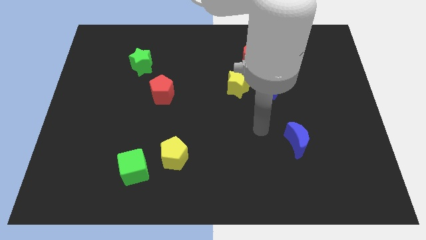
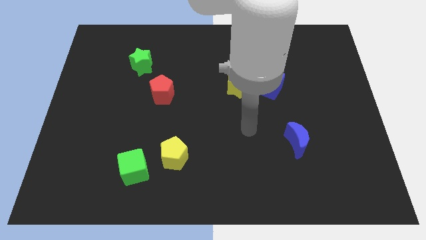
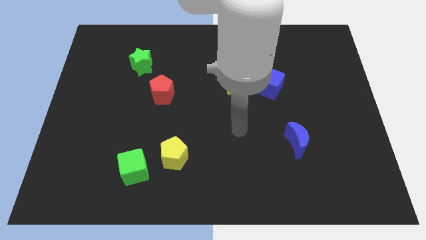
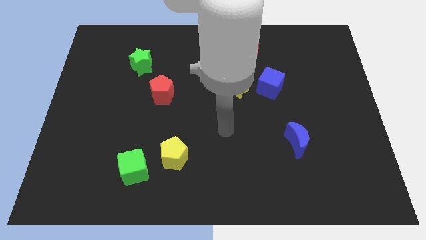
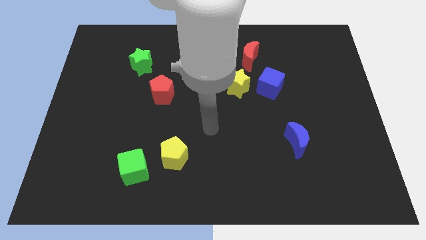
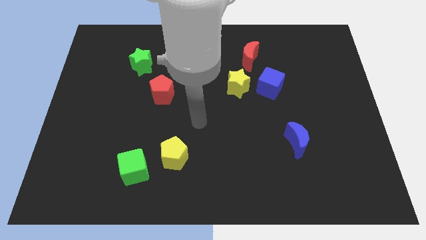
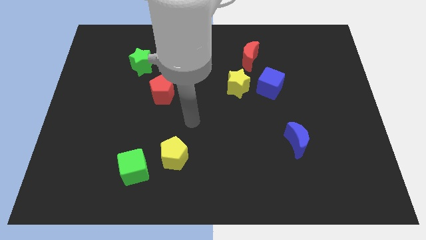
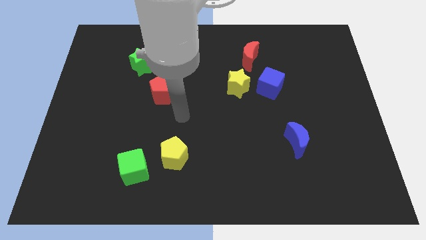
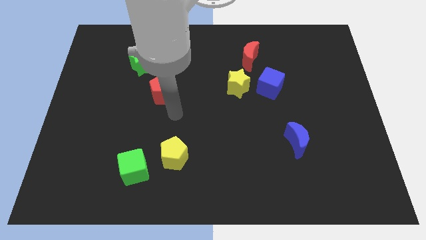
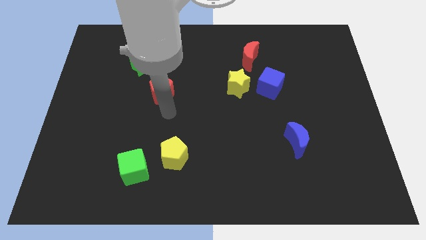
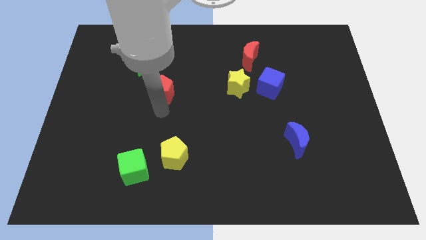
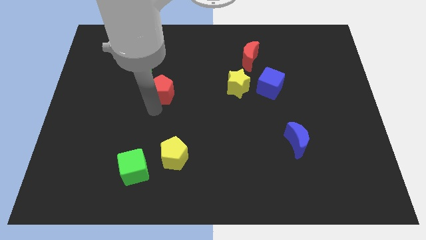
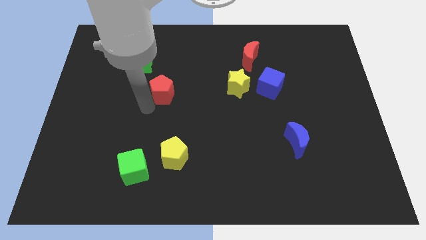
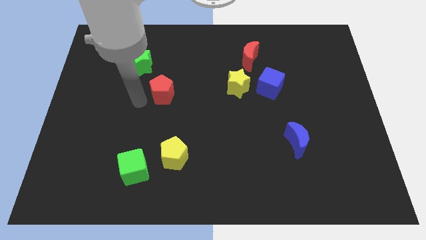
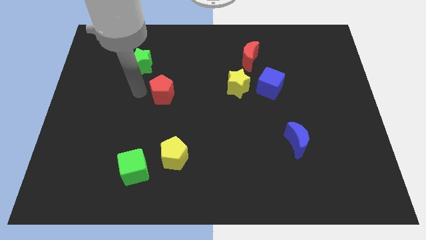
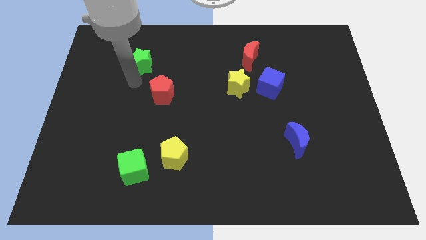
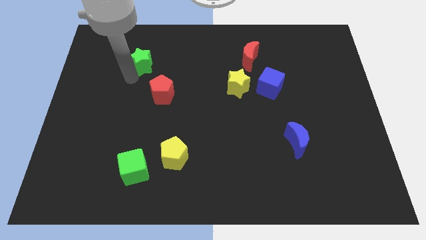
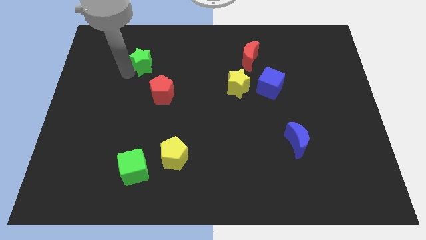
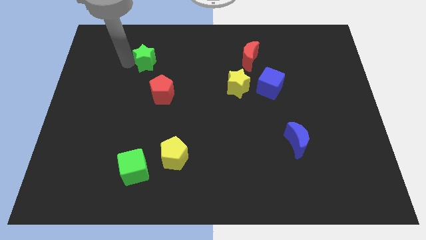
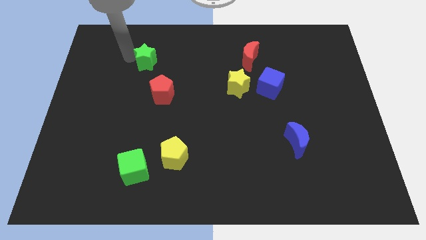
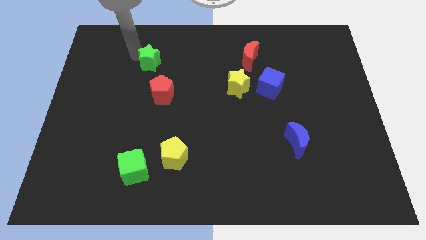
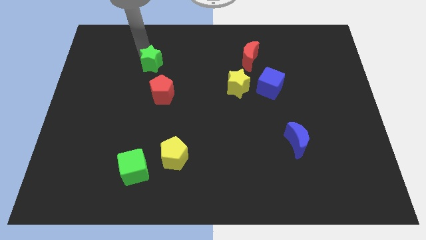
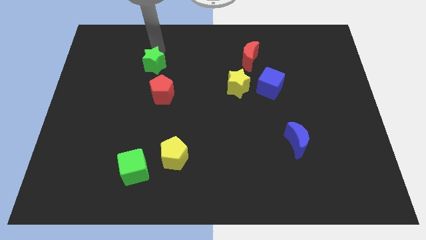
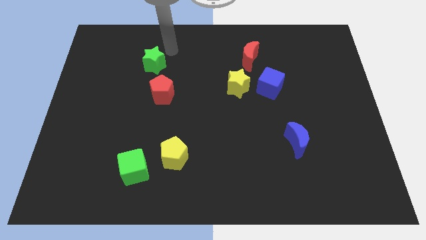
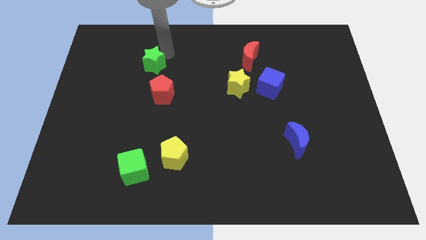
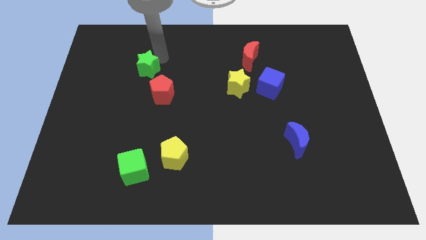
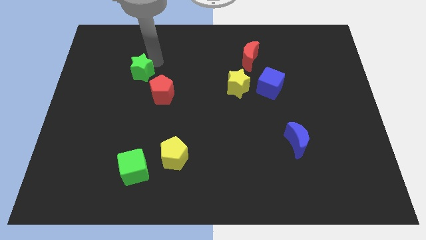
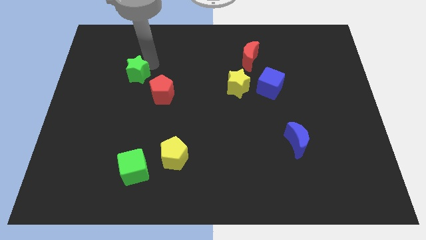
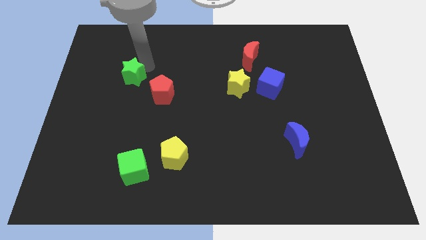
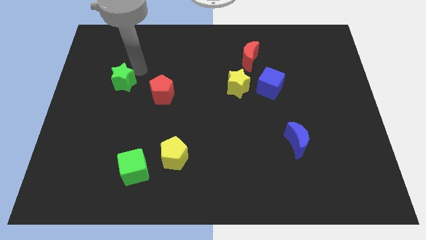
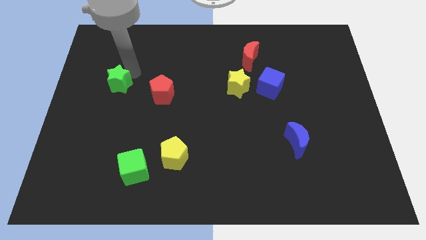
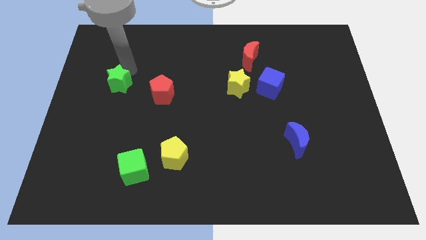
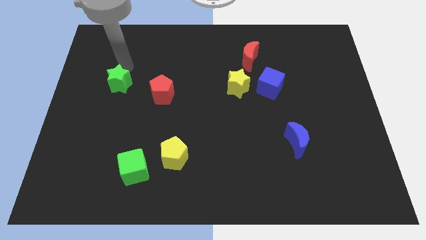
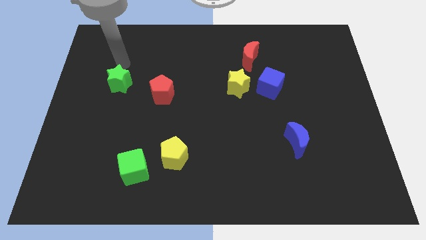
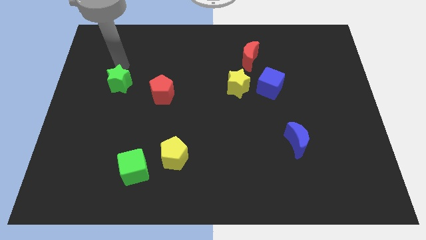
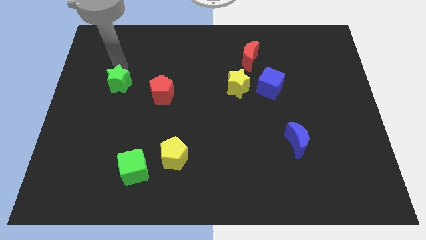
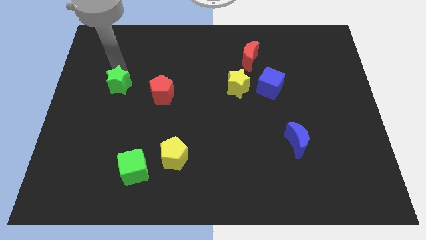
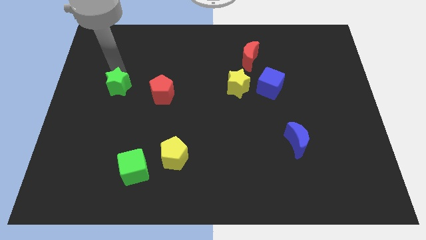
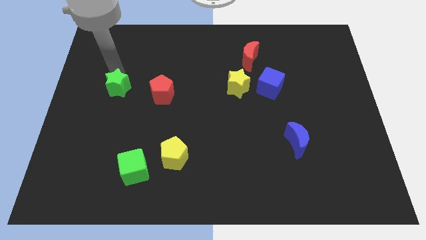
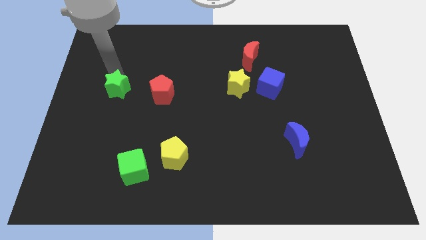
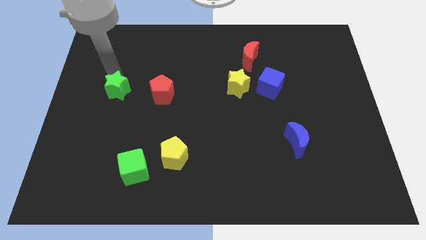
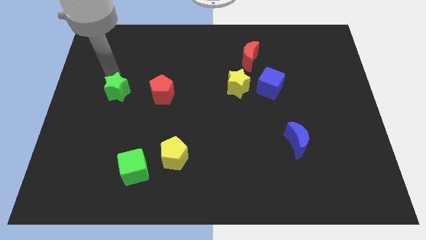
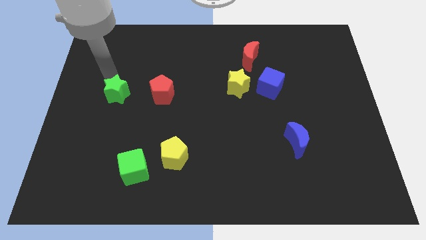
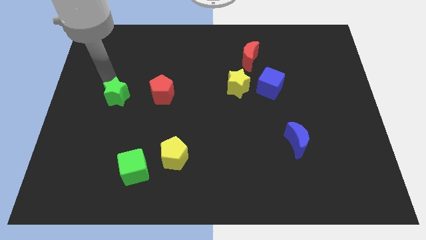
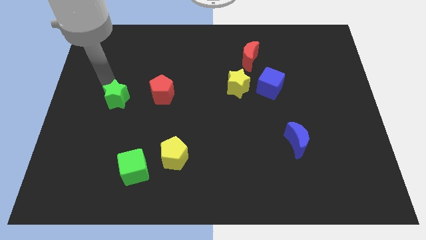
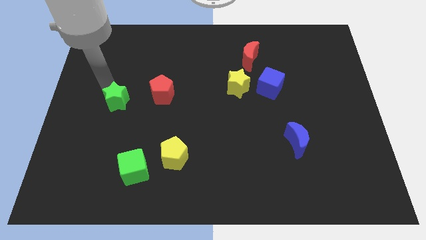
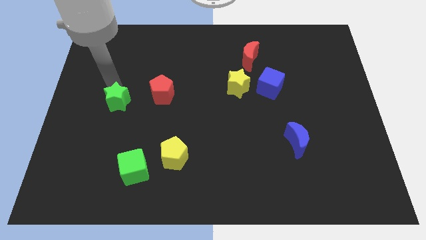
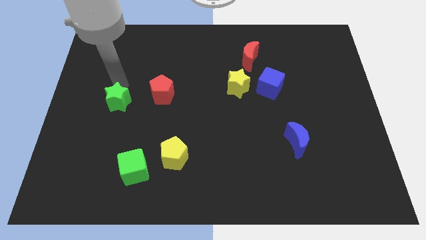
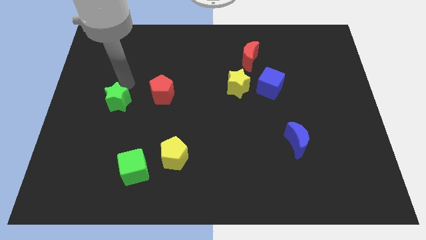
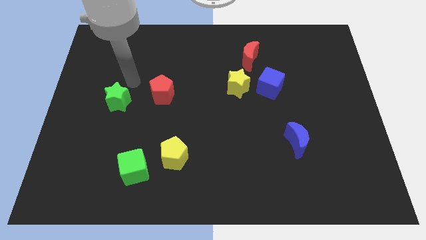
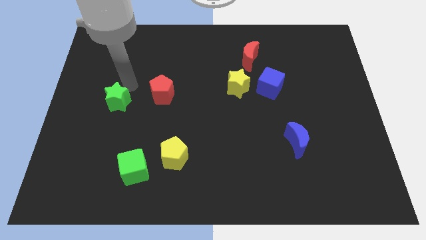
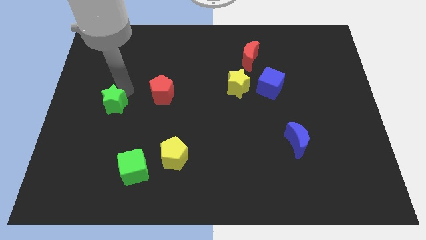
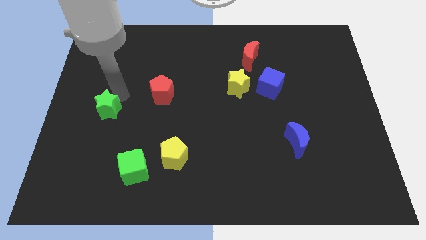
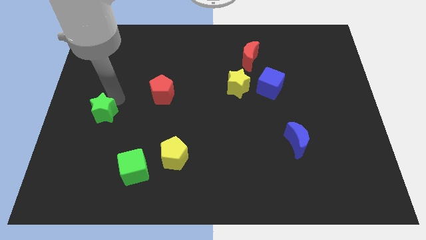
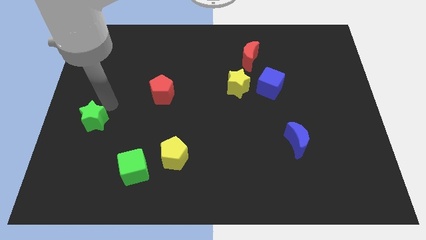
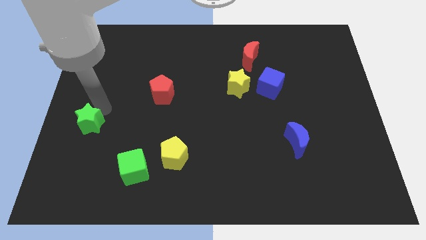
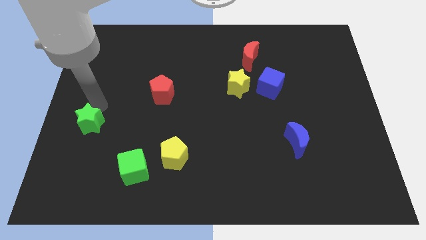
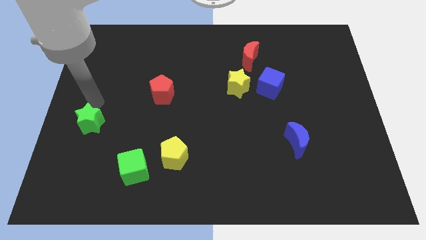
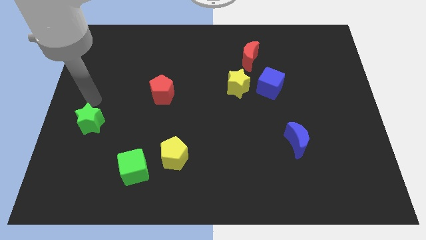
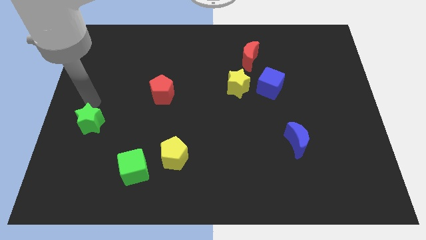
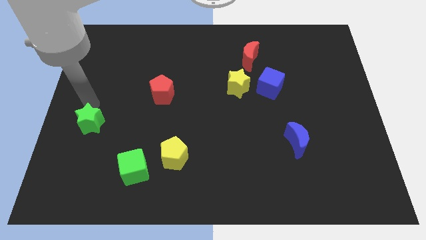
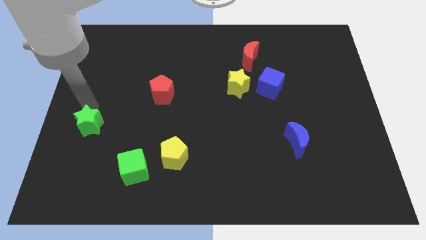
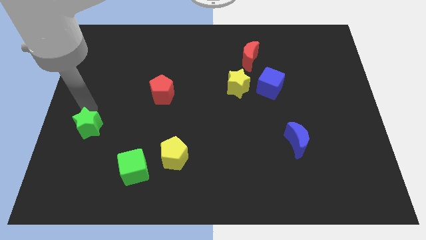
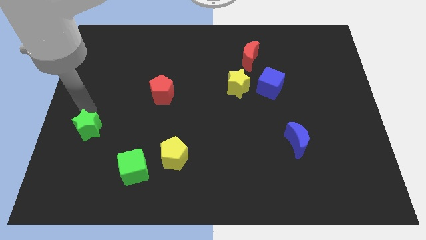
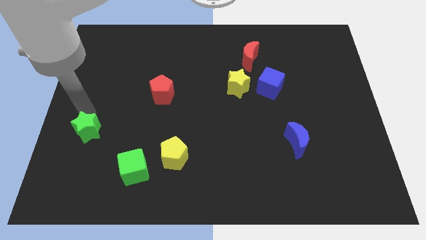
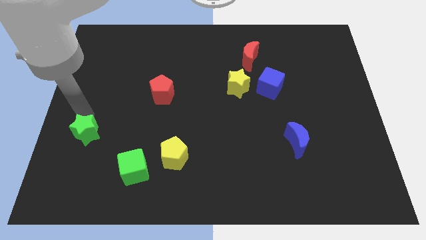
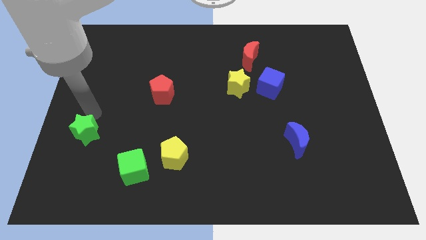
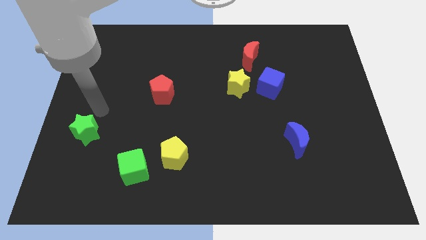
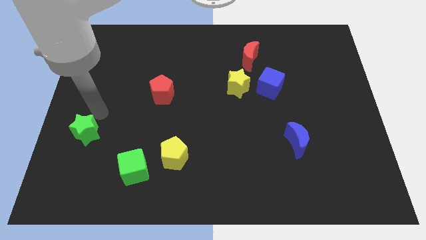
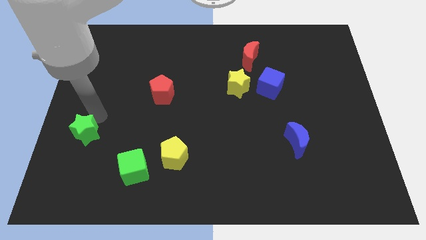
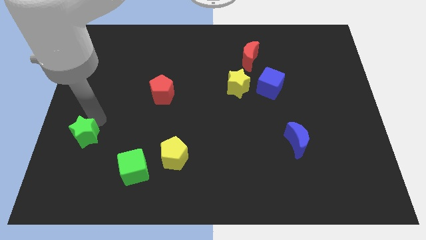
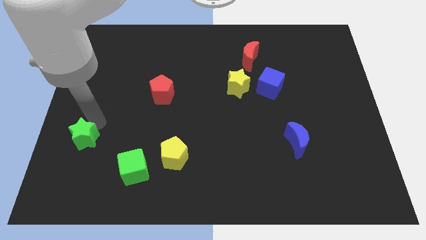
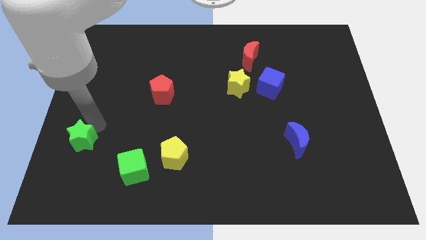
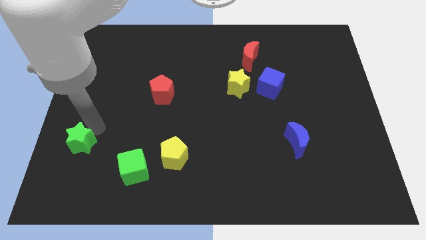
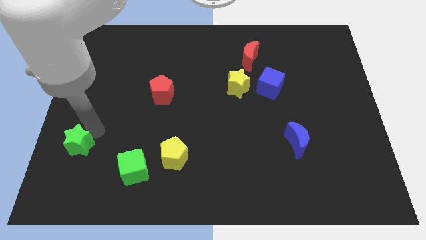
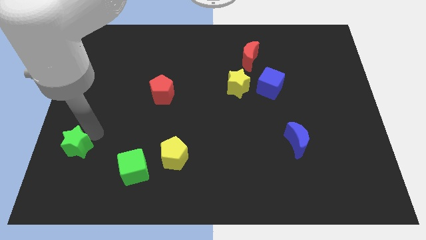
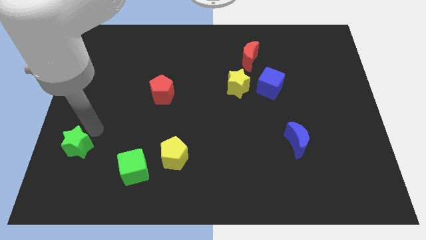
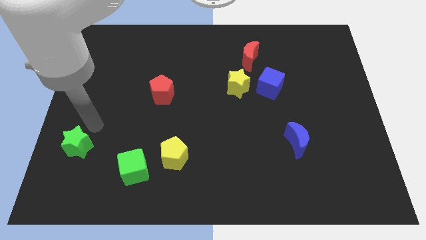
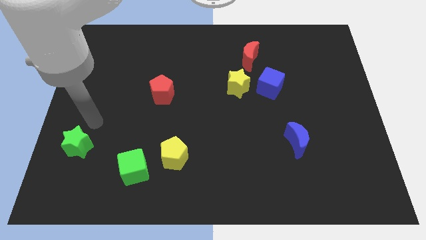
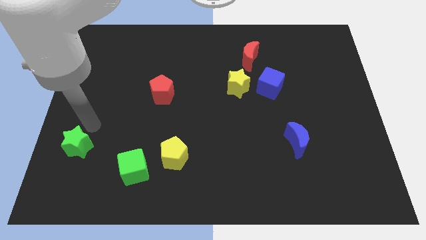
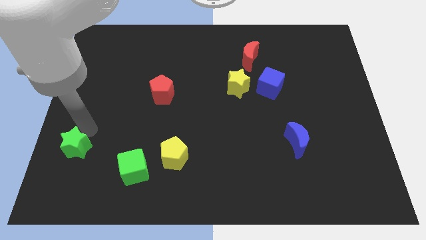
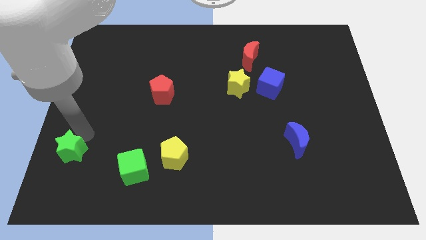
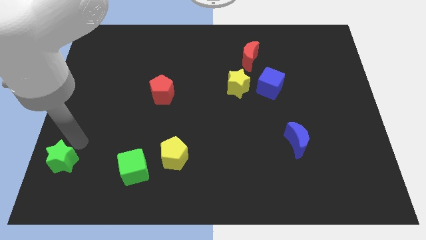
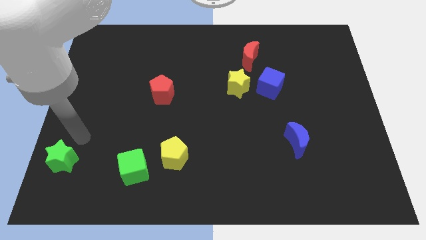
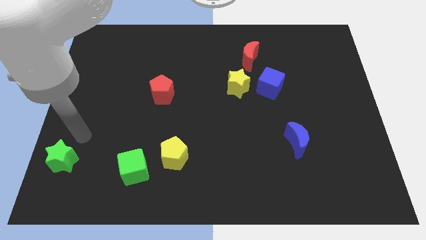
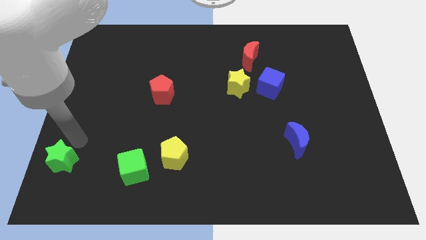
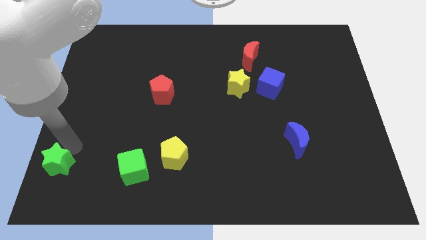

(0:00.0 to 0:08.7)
move the green star to the bottom left of the board
